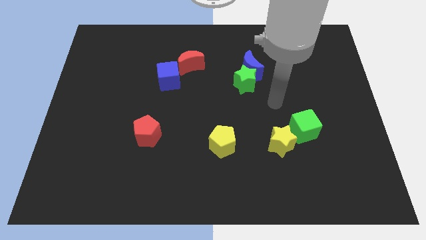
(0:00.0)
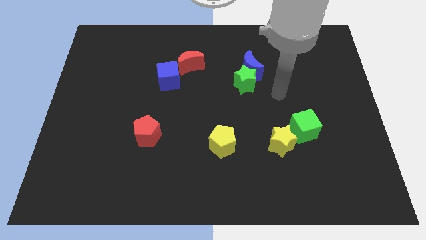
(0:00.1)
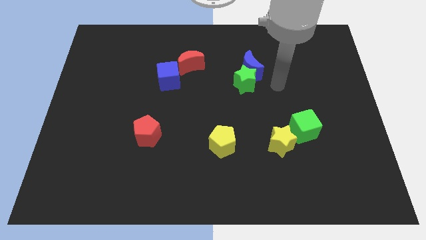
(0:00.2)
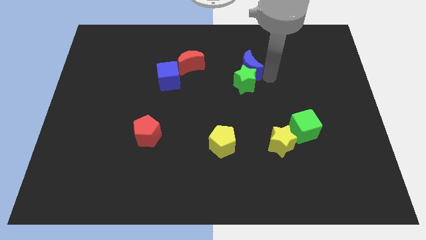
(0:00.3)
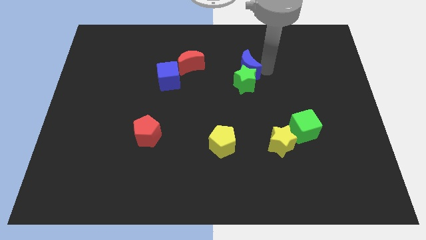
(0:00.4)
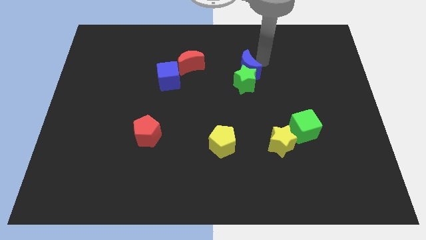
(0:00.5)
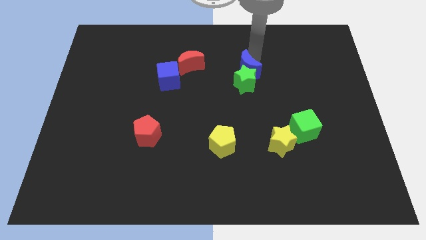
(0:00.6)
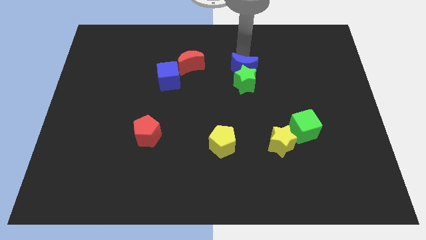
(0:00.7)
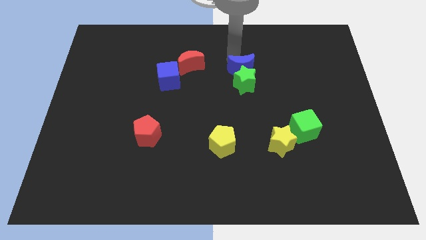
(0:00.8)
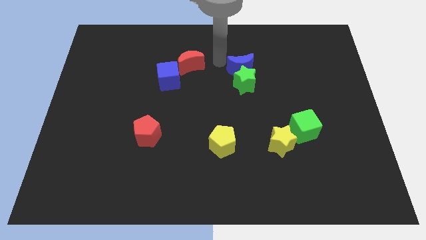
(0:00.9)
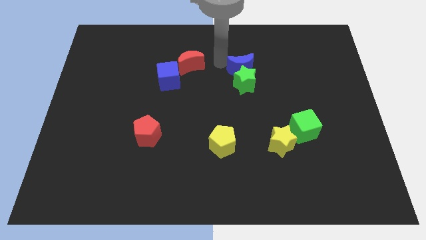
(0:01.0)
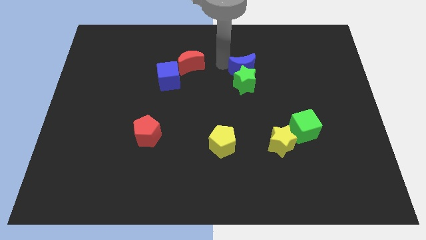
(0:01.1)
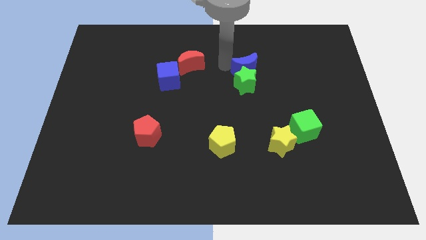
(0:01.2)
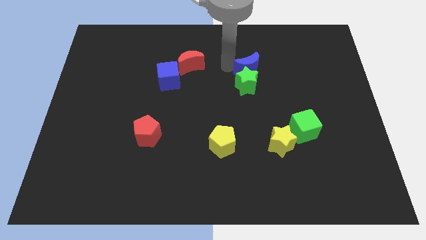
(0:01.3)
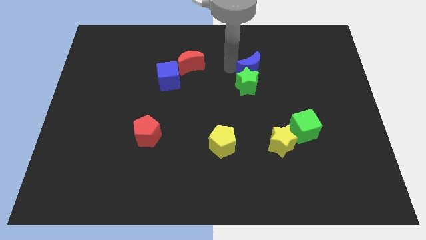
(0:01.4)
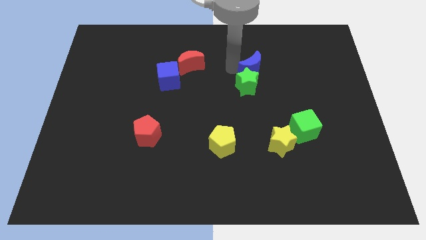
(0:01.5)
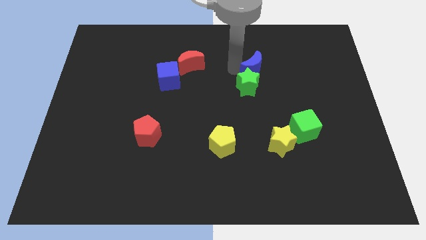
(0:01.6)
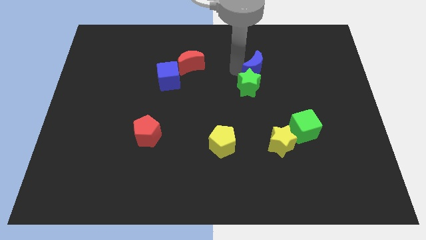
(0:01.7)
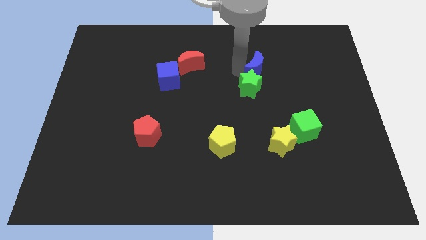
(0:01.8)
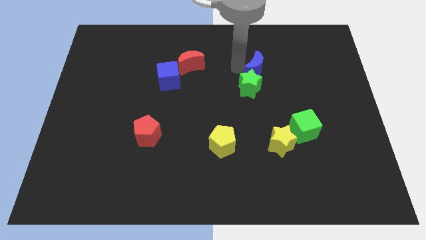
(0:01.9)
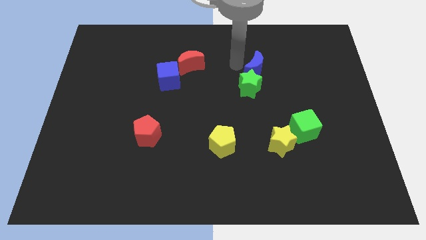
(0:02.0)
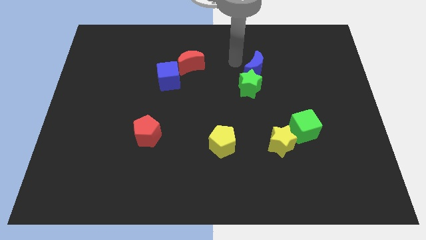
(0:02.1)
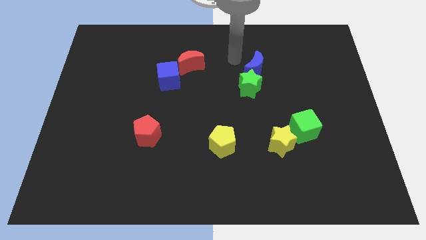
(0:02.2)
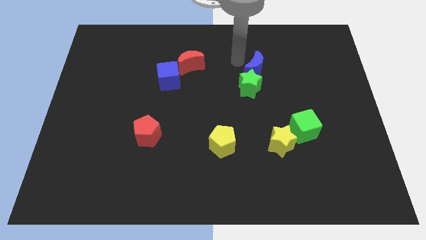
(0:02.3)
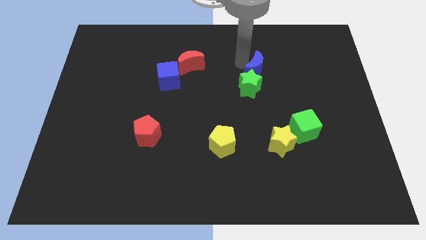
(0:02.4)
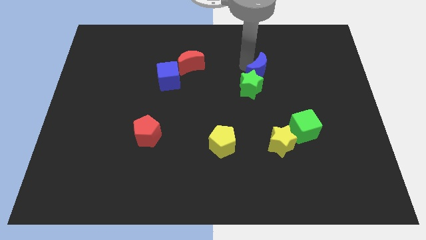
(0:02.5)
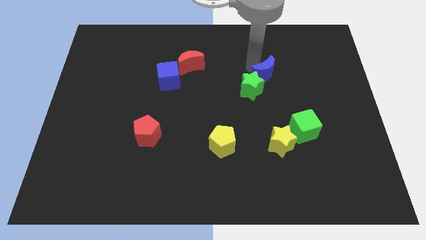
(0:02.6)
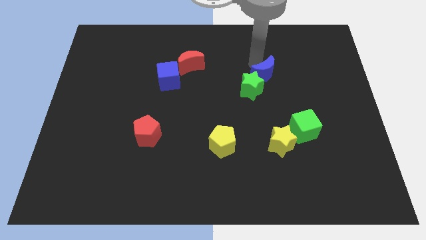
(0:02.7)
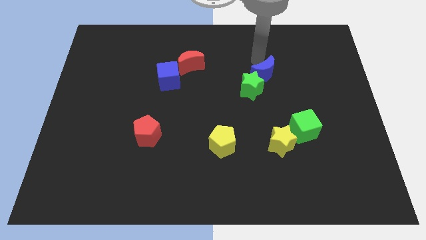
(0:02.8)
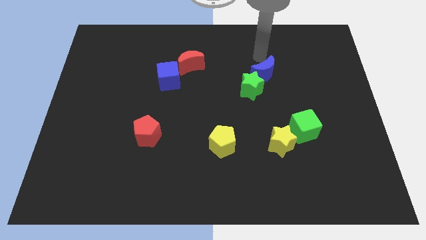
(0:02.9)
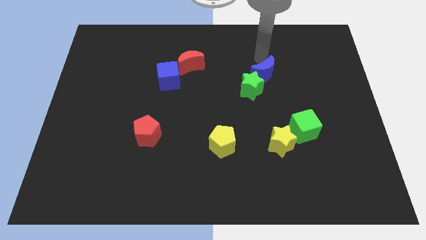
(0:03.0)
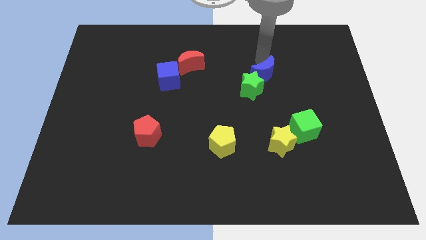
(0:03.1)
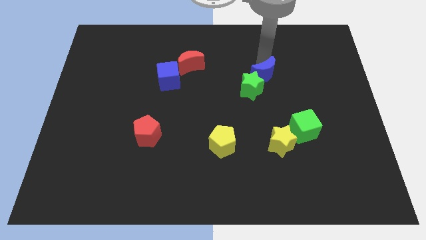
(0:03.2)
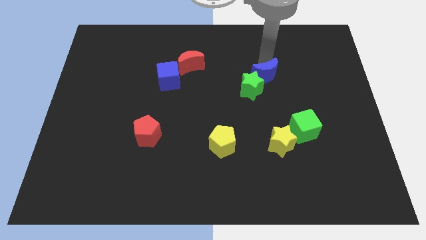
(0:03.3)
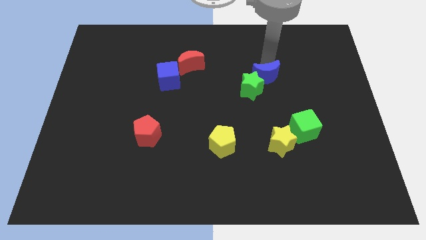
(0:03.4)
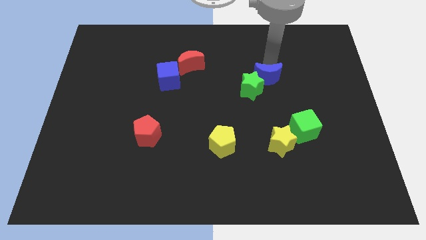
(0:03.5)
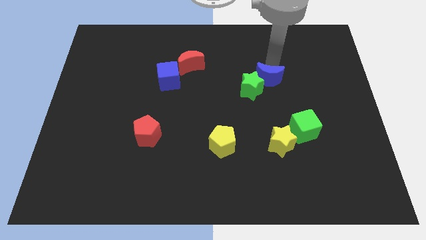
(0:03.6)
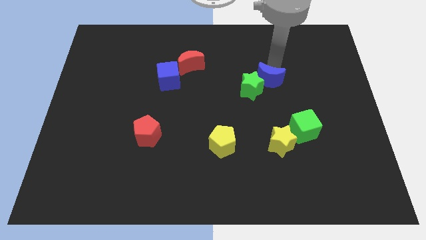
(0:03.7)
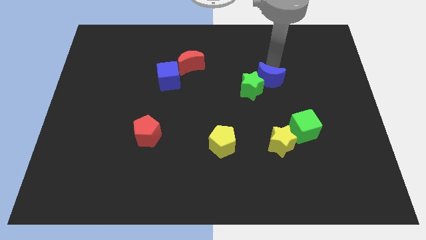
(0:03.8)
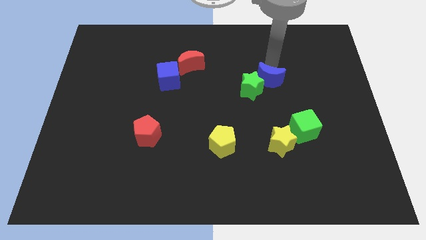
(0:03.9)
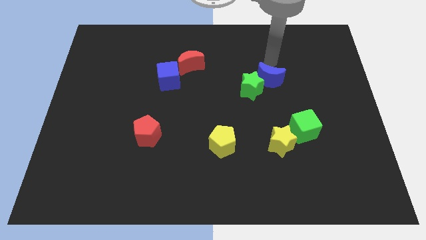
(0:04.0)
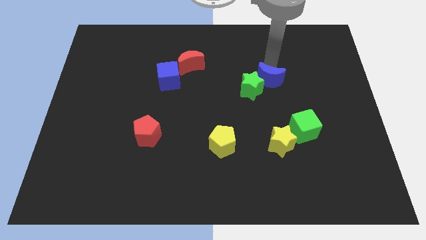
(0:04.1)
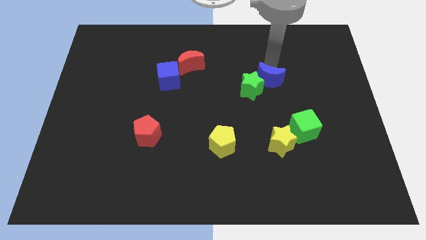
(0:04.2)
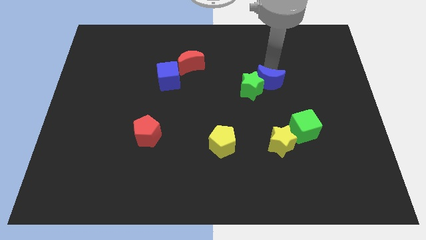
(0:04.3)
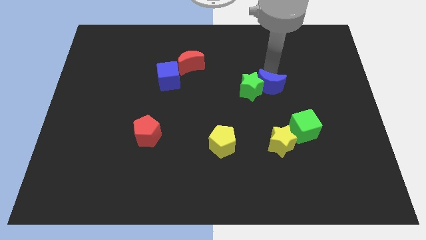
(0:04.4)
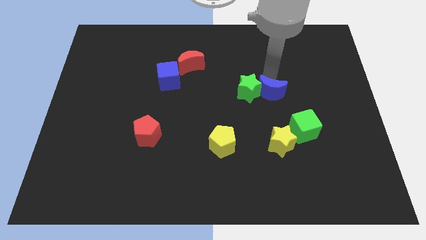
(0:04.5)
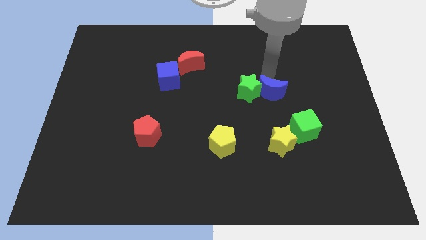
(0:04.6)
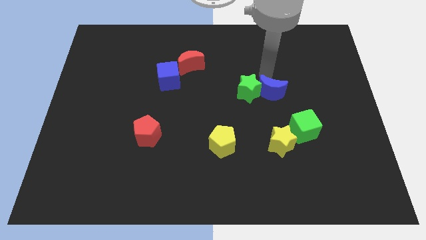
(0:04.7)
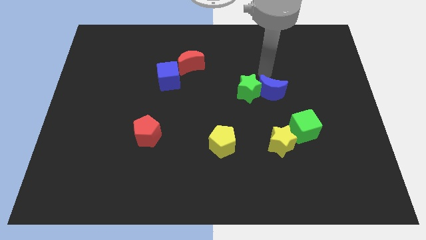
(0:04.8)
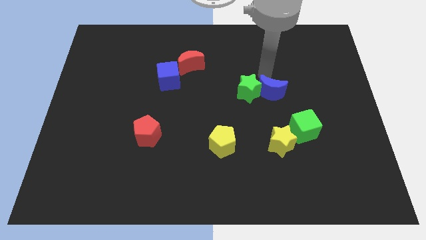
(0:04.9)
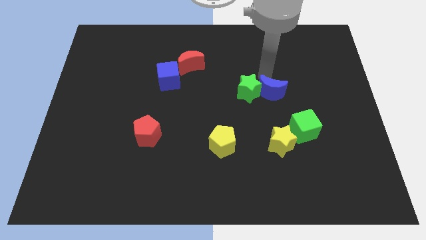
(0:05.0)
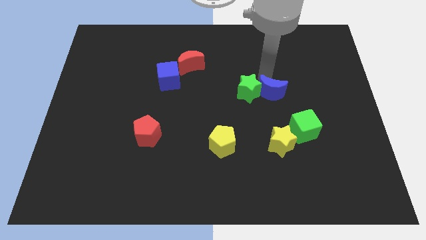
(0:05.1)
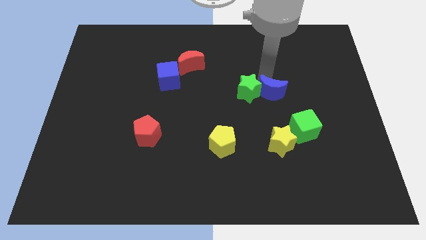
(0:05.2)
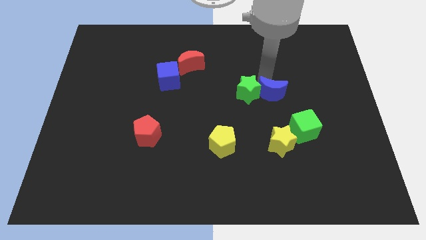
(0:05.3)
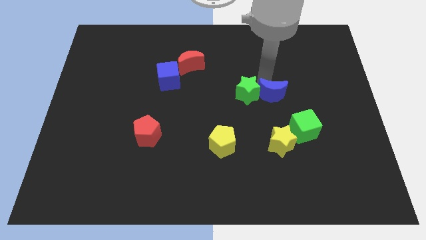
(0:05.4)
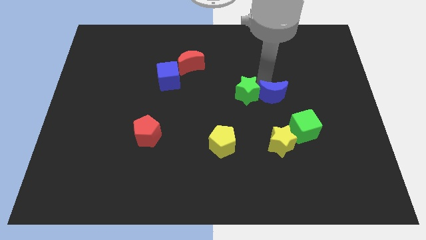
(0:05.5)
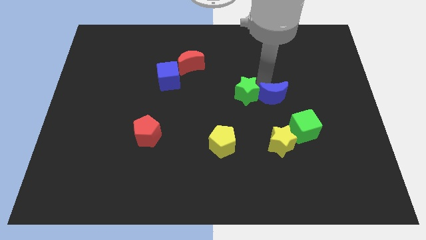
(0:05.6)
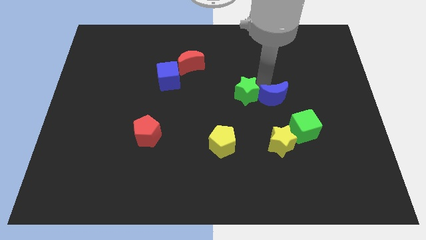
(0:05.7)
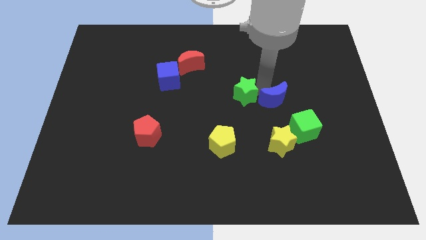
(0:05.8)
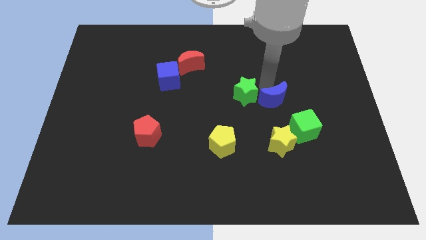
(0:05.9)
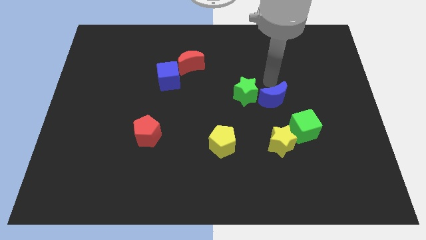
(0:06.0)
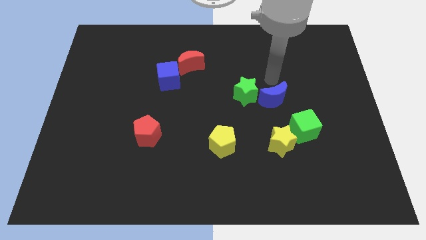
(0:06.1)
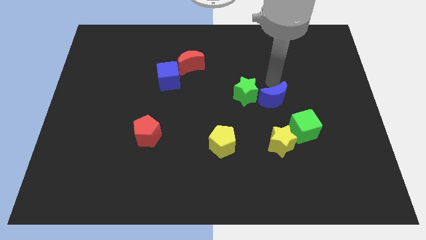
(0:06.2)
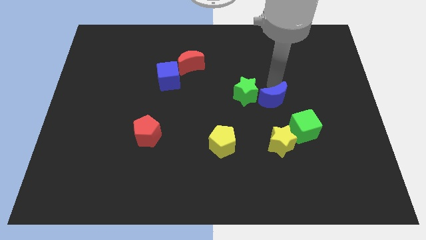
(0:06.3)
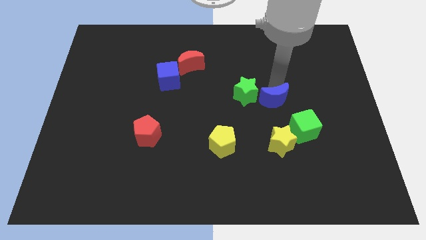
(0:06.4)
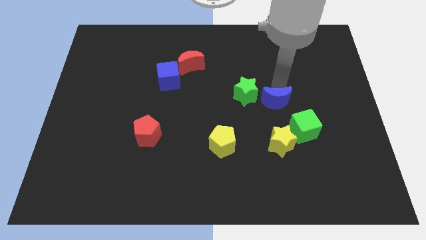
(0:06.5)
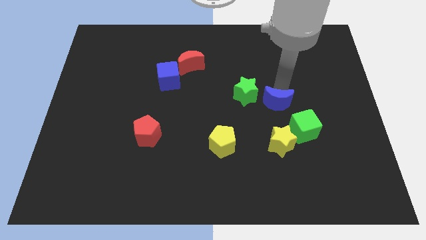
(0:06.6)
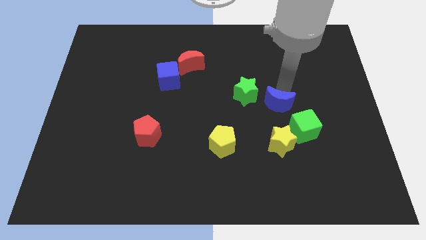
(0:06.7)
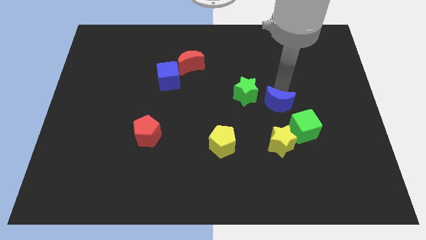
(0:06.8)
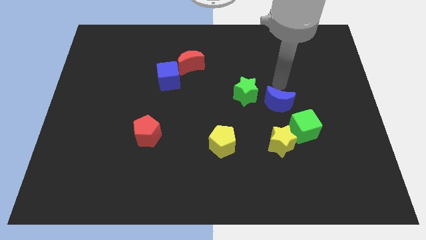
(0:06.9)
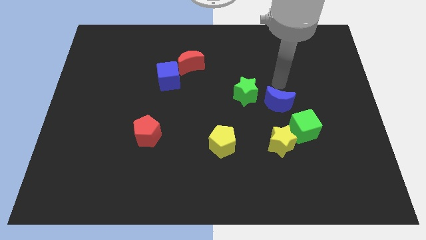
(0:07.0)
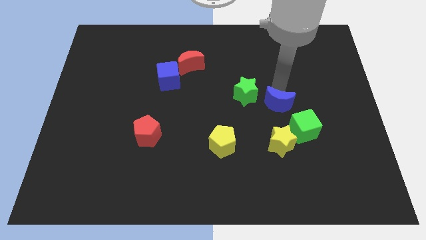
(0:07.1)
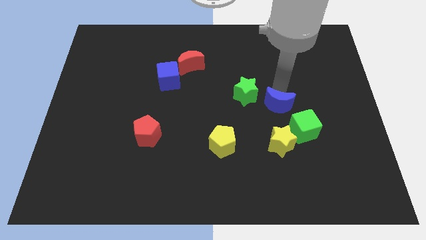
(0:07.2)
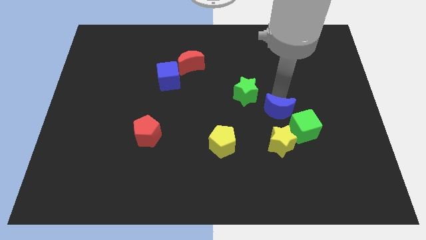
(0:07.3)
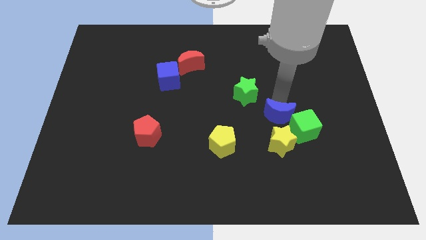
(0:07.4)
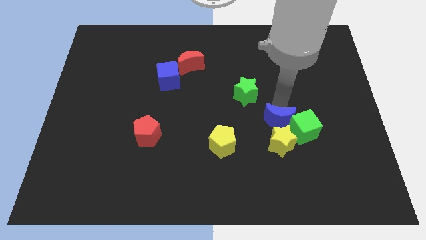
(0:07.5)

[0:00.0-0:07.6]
slide the blue moon close to the yellow star
